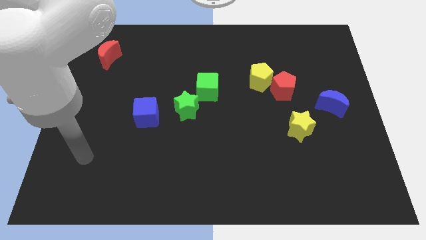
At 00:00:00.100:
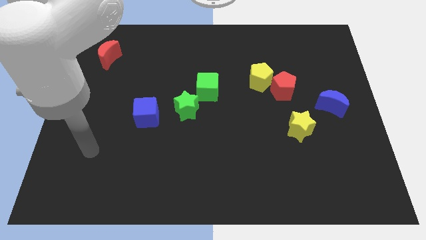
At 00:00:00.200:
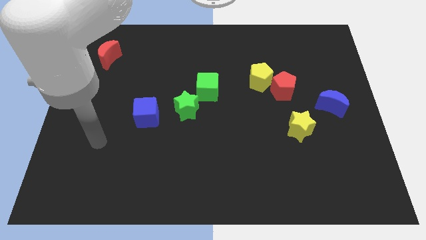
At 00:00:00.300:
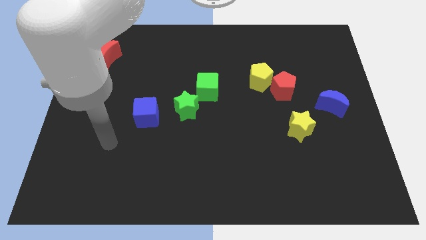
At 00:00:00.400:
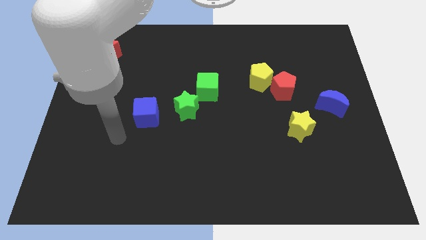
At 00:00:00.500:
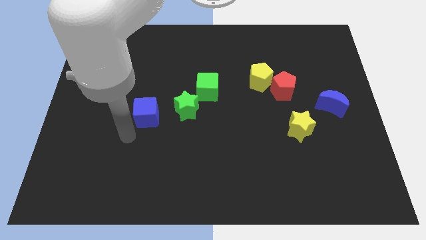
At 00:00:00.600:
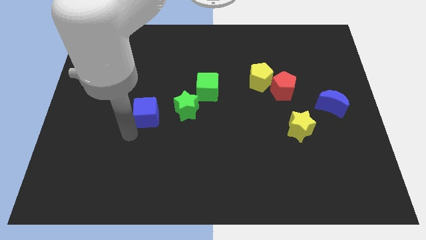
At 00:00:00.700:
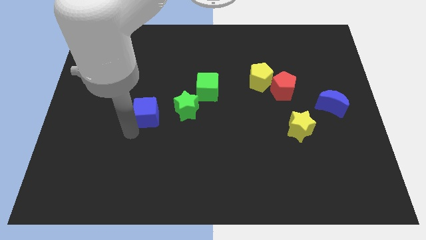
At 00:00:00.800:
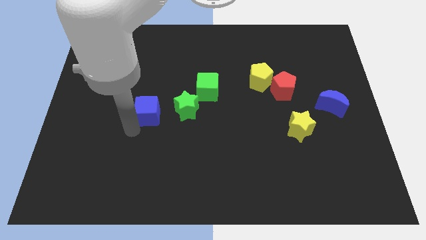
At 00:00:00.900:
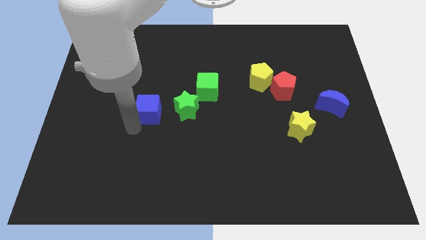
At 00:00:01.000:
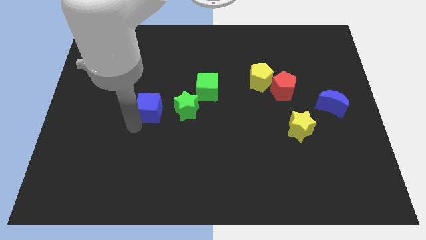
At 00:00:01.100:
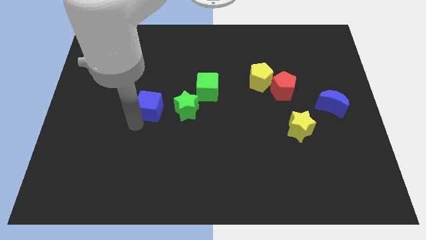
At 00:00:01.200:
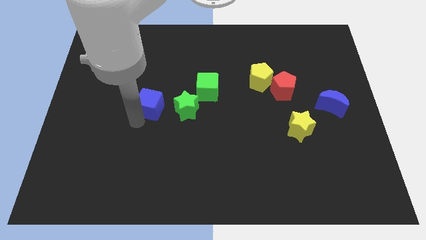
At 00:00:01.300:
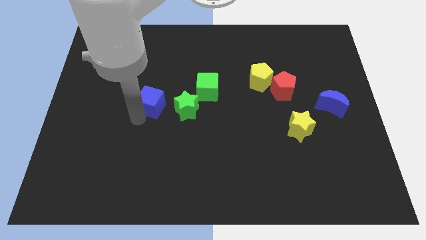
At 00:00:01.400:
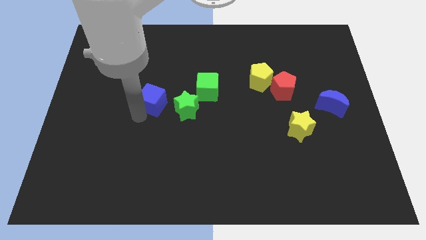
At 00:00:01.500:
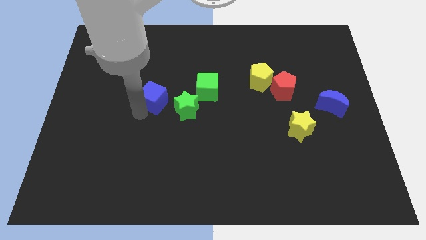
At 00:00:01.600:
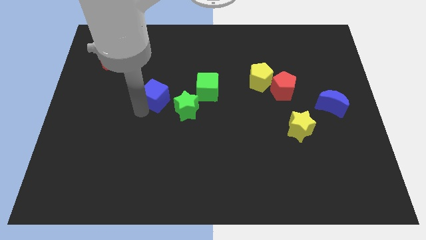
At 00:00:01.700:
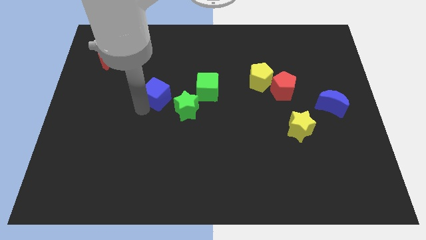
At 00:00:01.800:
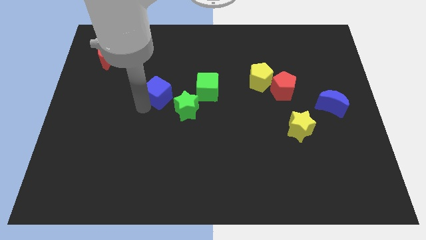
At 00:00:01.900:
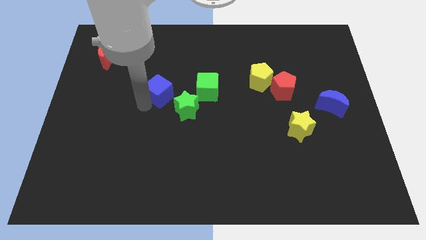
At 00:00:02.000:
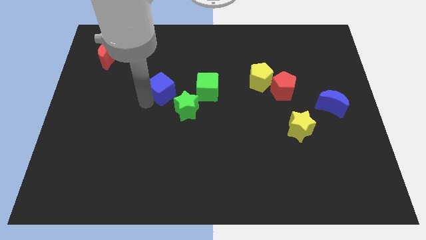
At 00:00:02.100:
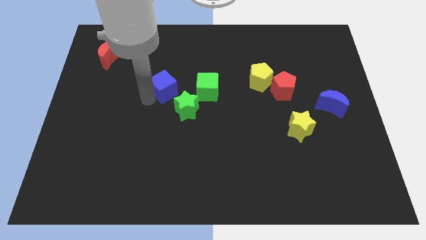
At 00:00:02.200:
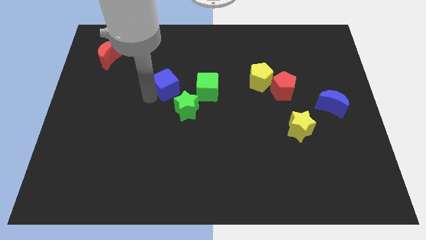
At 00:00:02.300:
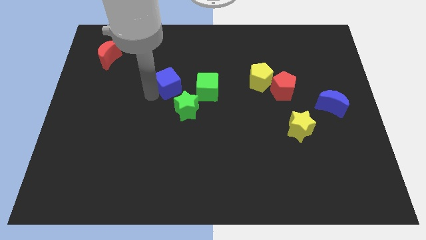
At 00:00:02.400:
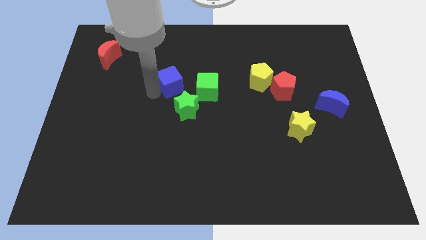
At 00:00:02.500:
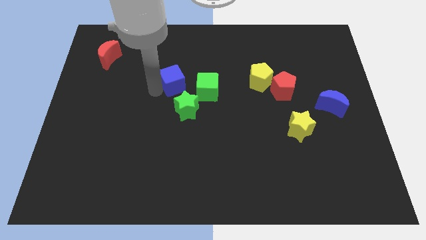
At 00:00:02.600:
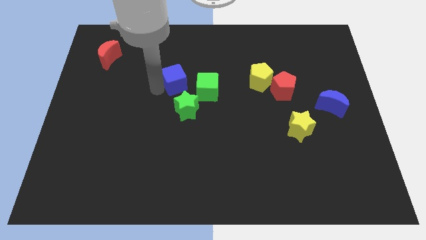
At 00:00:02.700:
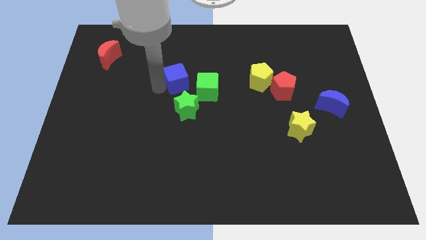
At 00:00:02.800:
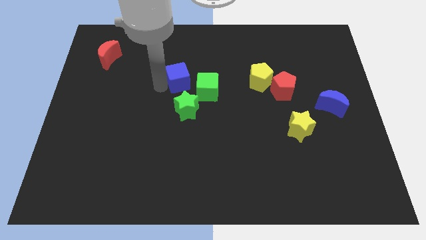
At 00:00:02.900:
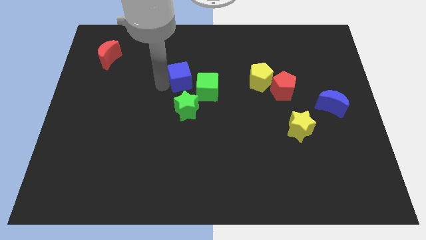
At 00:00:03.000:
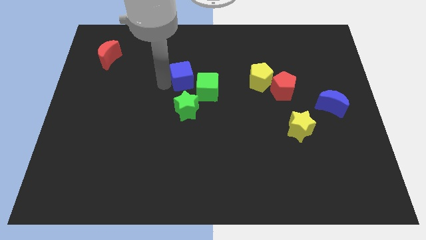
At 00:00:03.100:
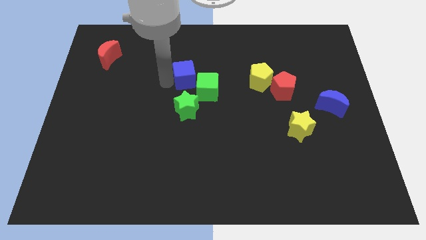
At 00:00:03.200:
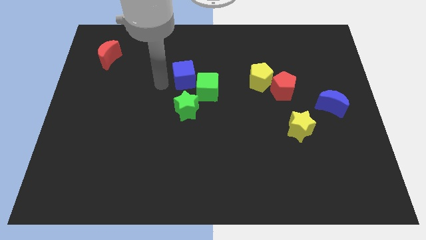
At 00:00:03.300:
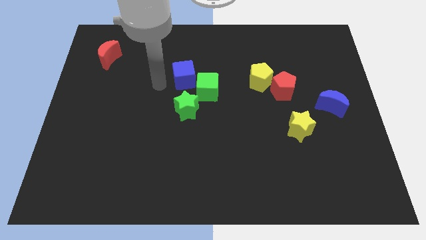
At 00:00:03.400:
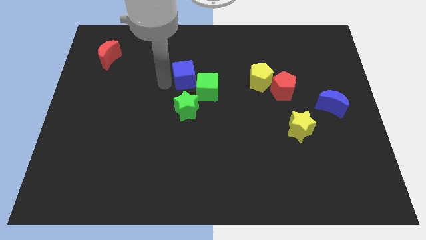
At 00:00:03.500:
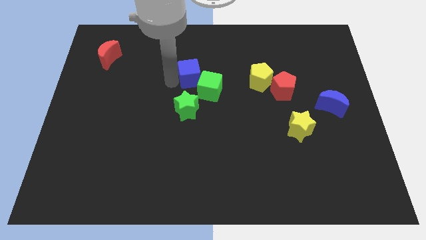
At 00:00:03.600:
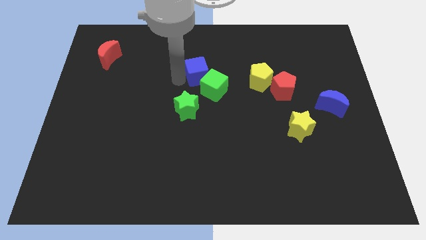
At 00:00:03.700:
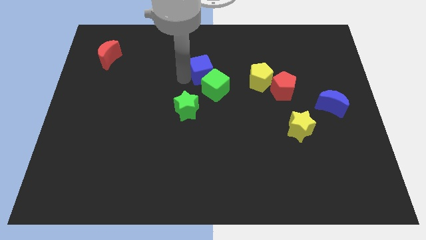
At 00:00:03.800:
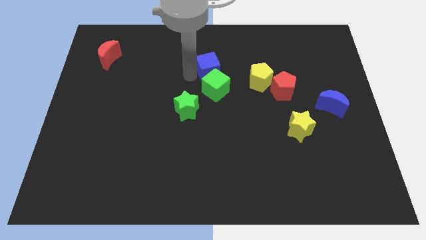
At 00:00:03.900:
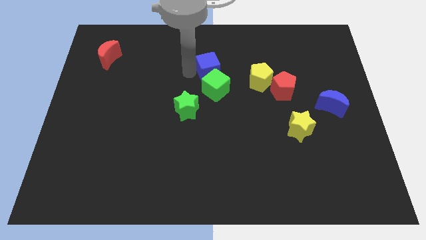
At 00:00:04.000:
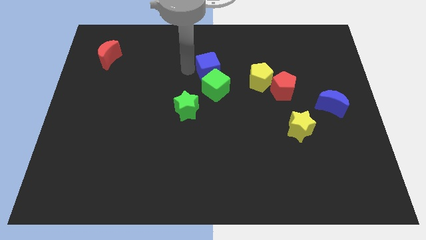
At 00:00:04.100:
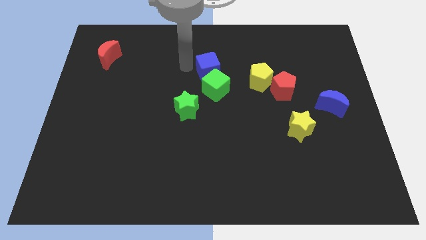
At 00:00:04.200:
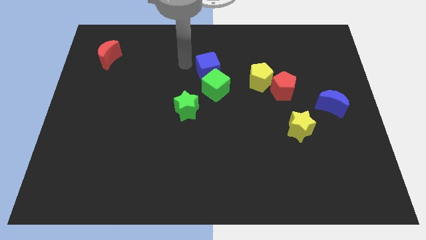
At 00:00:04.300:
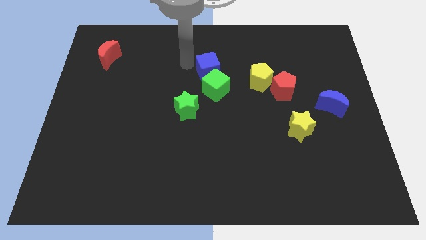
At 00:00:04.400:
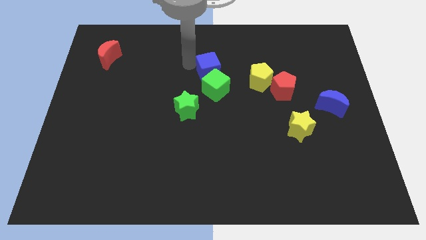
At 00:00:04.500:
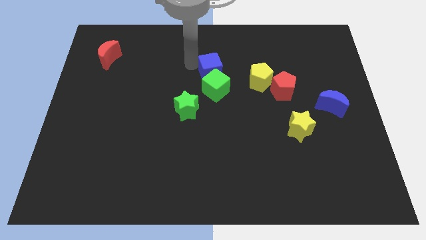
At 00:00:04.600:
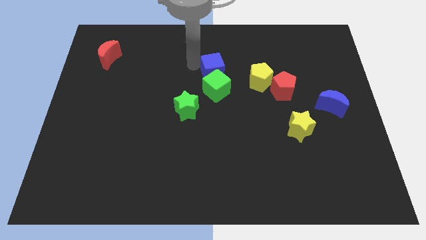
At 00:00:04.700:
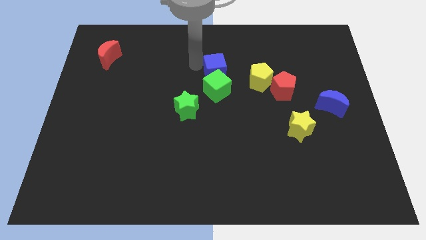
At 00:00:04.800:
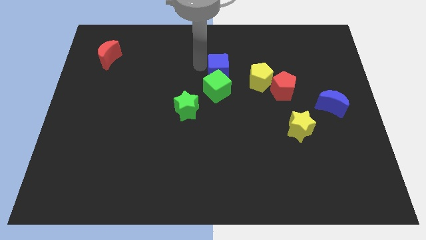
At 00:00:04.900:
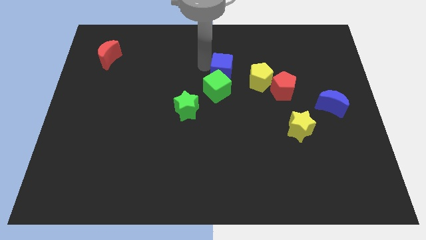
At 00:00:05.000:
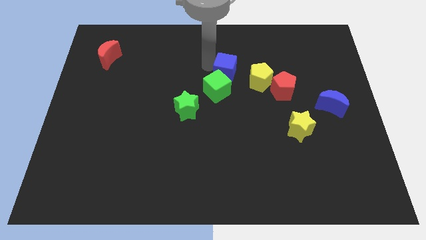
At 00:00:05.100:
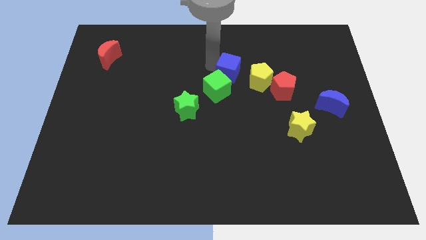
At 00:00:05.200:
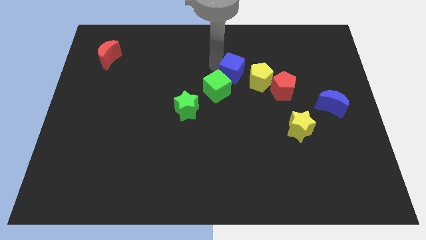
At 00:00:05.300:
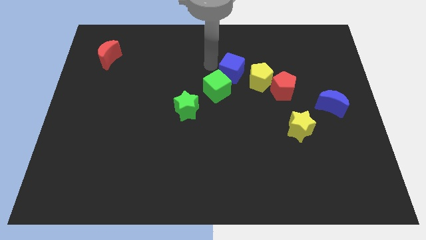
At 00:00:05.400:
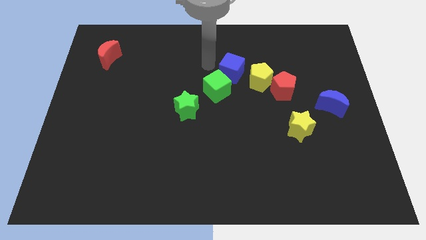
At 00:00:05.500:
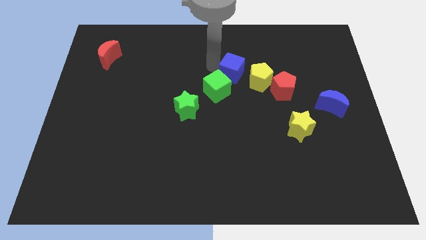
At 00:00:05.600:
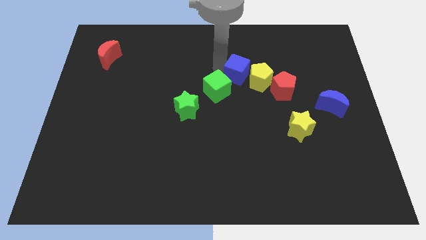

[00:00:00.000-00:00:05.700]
slide the blue cube next to the yellow pentagon

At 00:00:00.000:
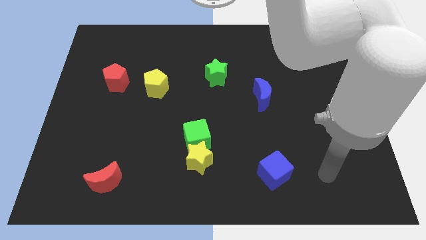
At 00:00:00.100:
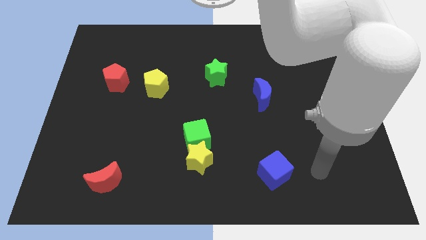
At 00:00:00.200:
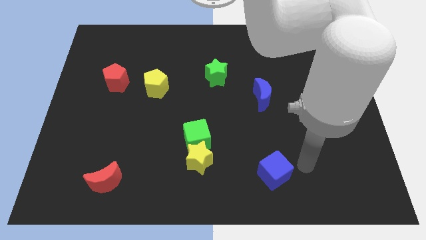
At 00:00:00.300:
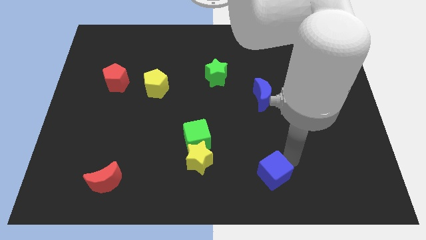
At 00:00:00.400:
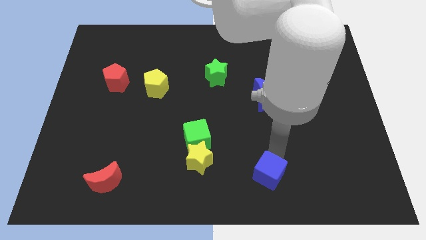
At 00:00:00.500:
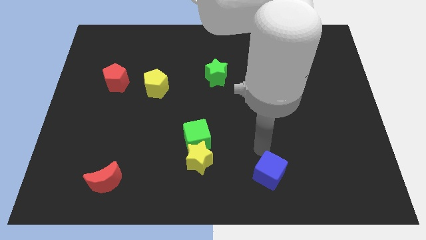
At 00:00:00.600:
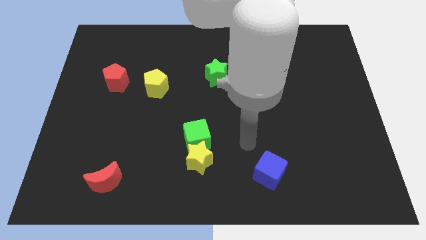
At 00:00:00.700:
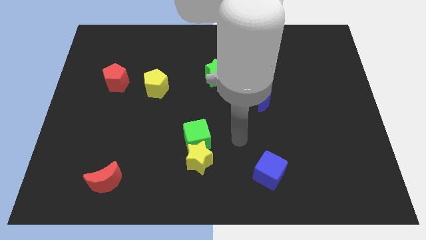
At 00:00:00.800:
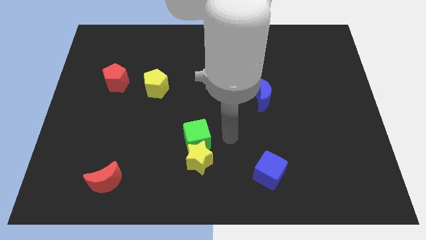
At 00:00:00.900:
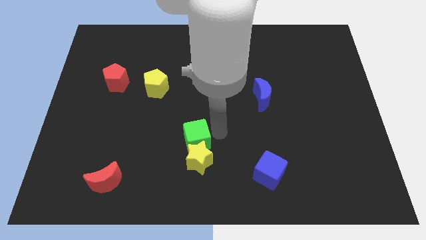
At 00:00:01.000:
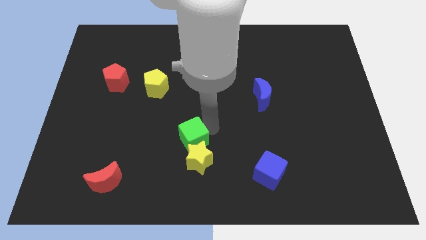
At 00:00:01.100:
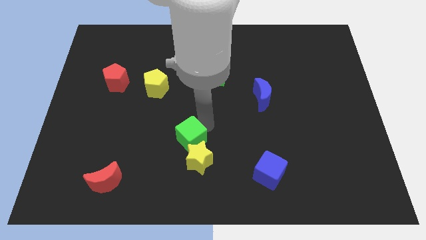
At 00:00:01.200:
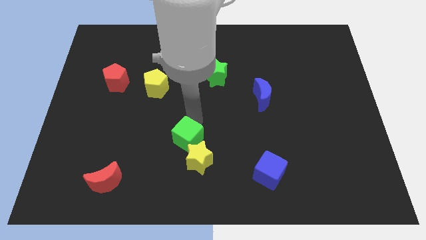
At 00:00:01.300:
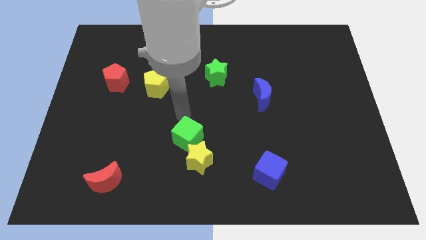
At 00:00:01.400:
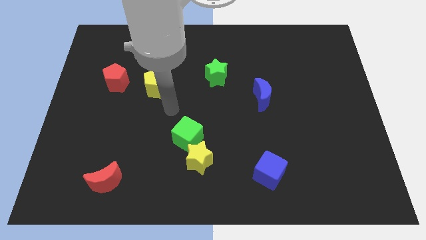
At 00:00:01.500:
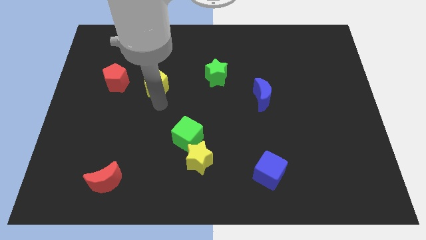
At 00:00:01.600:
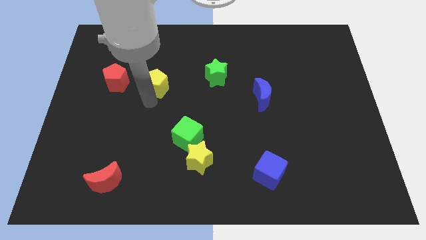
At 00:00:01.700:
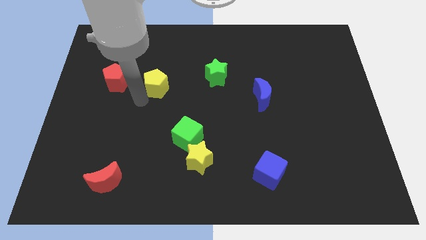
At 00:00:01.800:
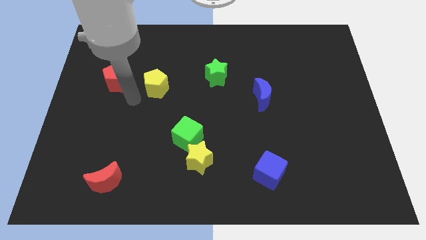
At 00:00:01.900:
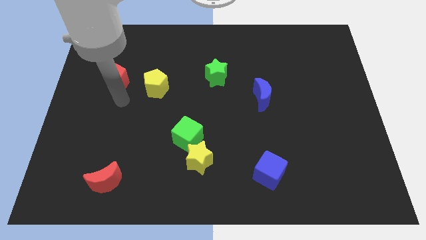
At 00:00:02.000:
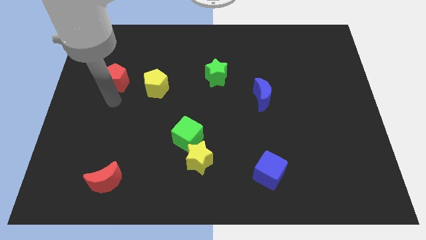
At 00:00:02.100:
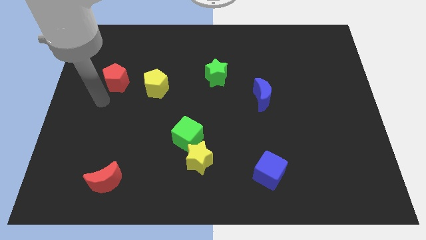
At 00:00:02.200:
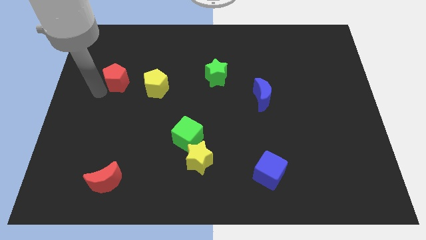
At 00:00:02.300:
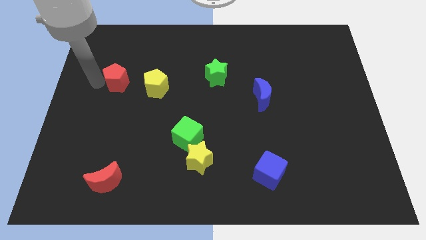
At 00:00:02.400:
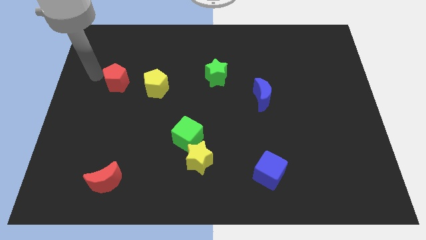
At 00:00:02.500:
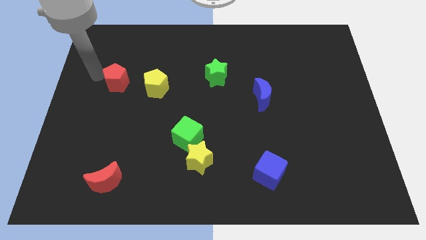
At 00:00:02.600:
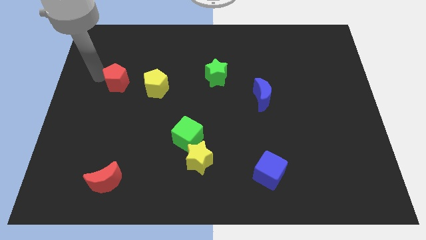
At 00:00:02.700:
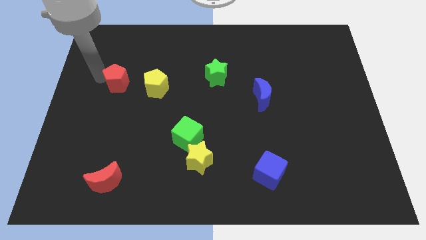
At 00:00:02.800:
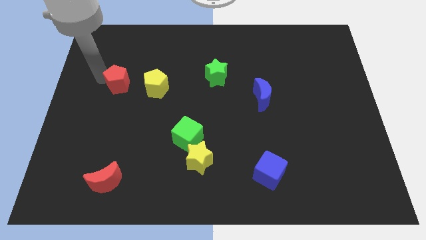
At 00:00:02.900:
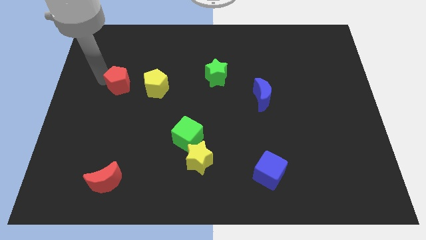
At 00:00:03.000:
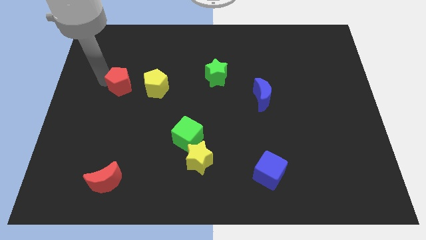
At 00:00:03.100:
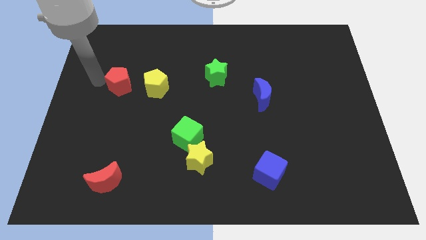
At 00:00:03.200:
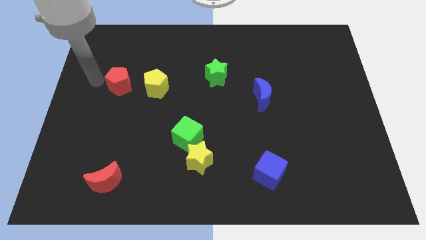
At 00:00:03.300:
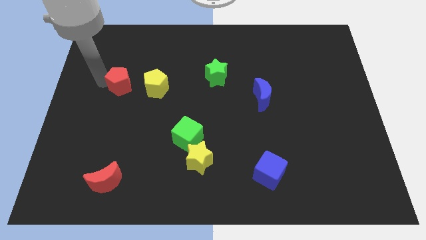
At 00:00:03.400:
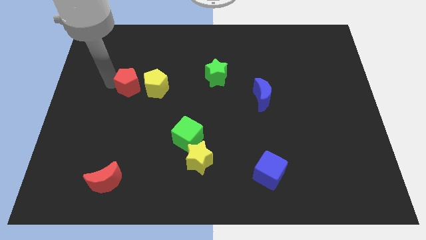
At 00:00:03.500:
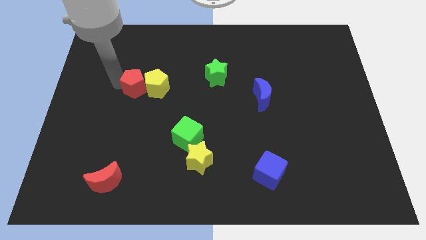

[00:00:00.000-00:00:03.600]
put the red pentagon to the yellow pentagon
